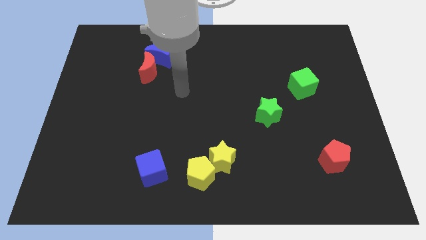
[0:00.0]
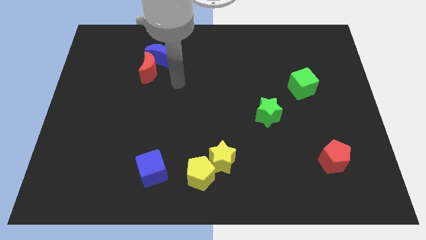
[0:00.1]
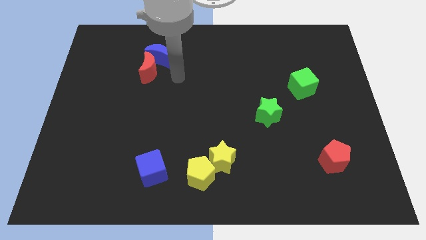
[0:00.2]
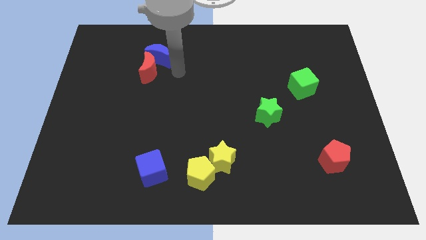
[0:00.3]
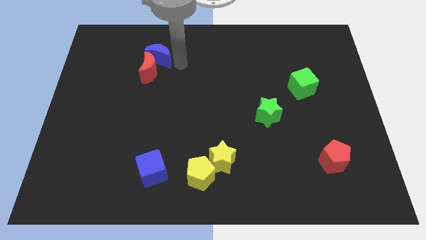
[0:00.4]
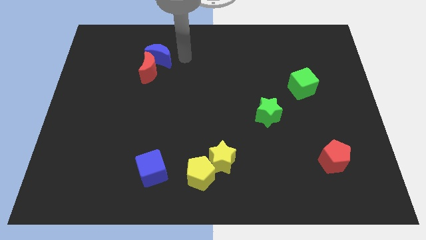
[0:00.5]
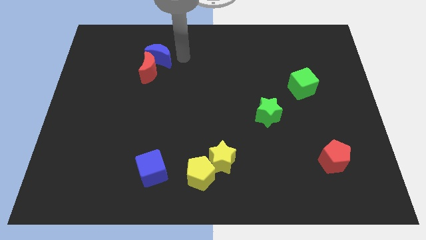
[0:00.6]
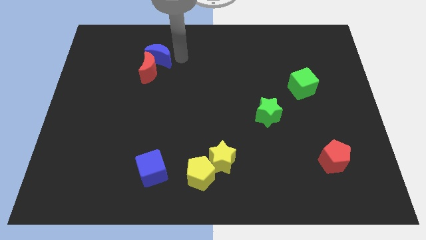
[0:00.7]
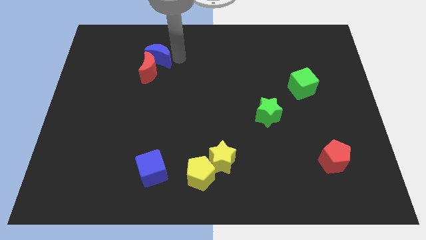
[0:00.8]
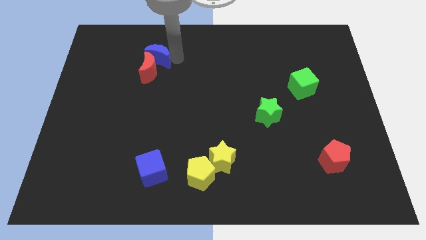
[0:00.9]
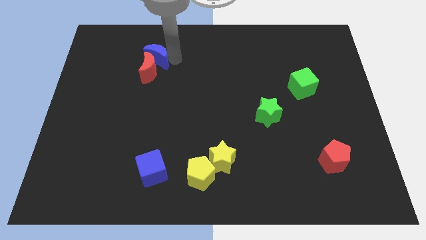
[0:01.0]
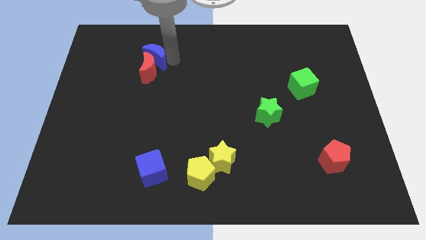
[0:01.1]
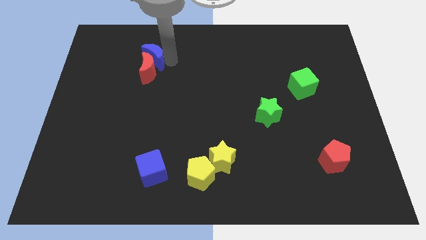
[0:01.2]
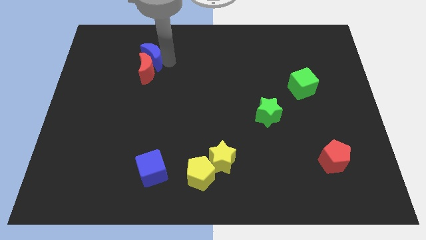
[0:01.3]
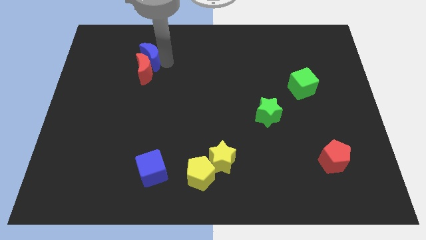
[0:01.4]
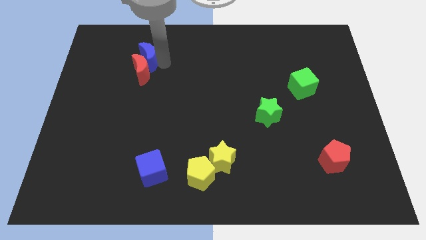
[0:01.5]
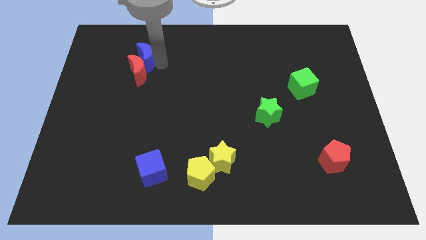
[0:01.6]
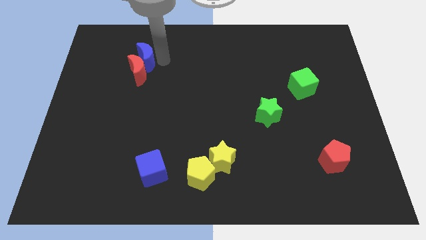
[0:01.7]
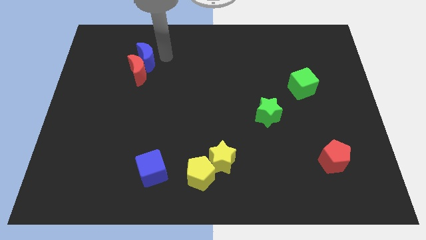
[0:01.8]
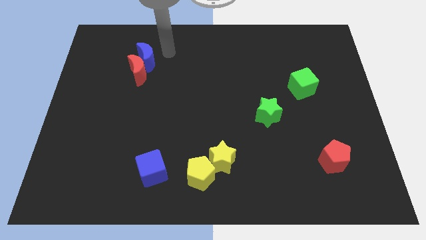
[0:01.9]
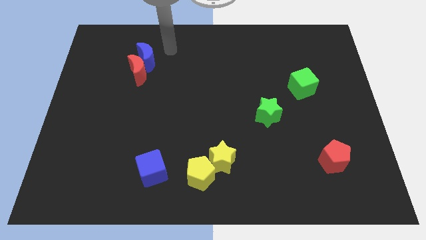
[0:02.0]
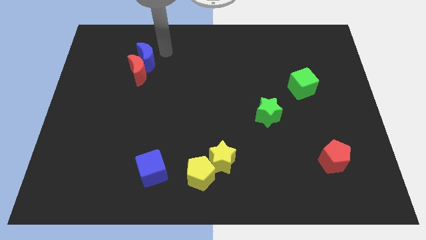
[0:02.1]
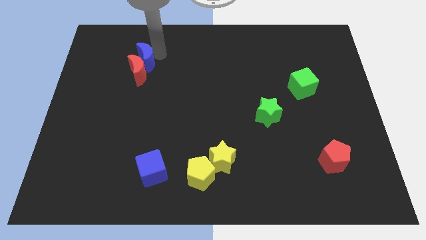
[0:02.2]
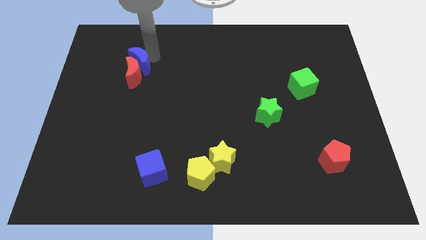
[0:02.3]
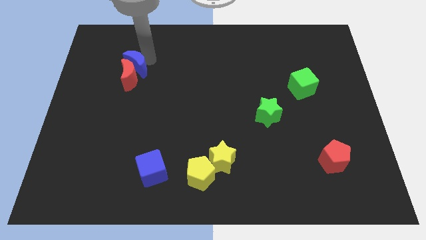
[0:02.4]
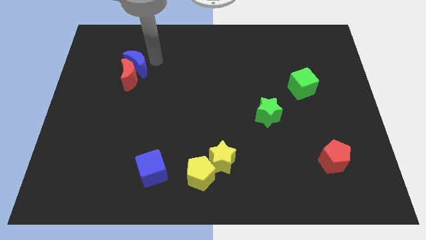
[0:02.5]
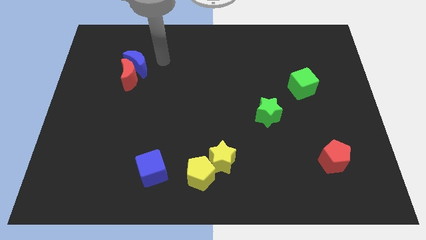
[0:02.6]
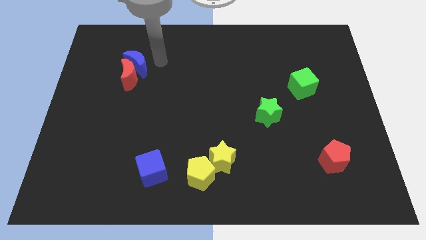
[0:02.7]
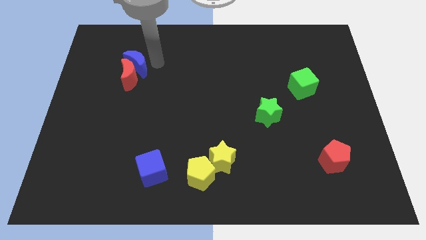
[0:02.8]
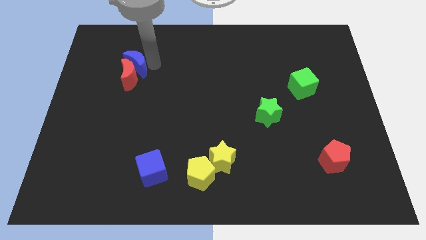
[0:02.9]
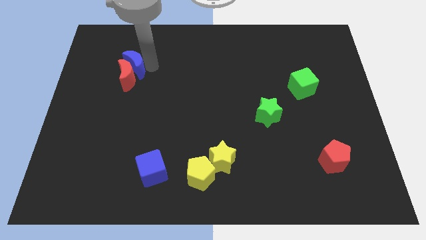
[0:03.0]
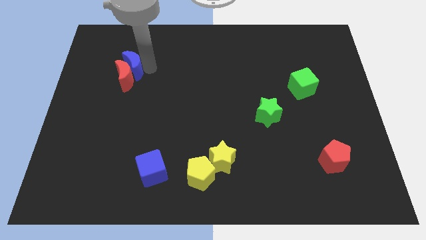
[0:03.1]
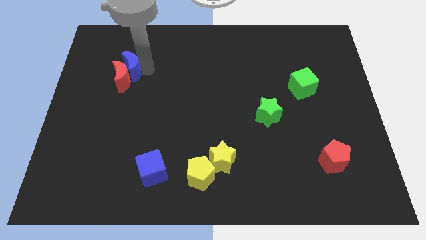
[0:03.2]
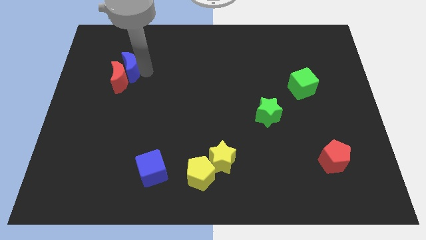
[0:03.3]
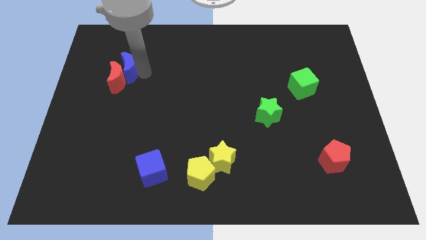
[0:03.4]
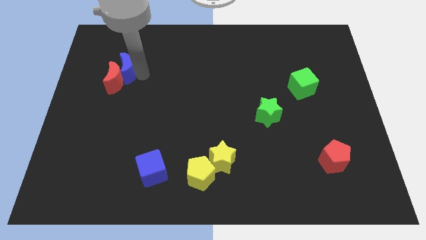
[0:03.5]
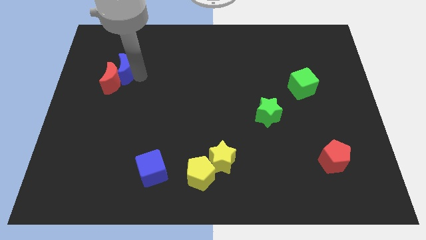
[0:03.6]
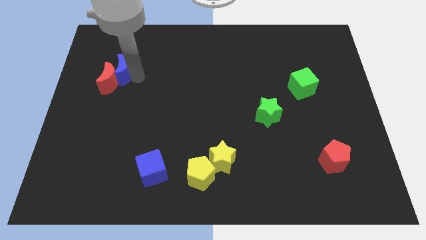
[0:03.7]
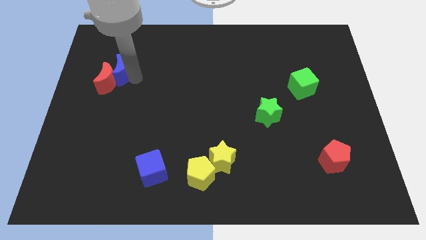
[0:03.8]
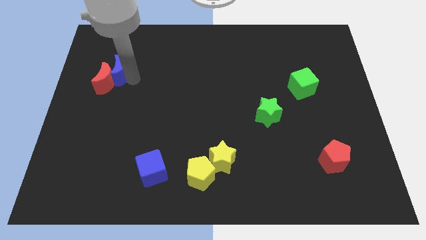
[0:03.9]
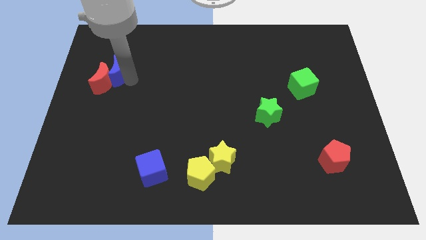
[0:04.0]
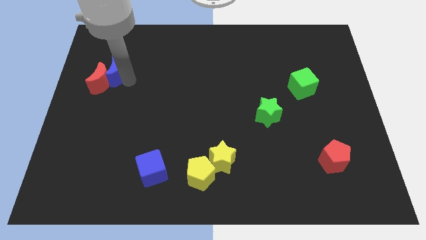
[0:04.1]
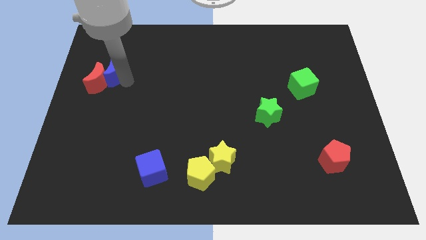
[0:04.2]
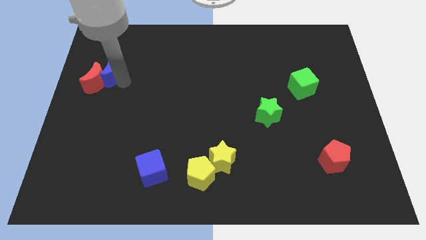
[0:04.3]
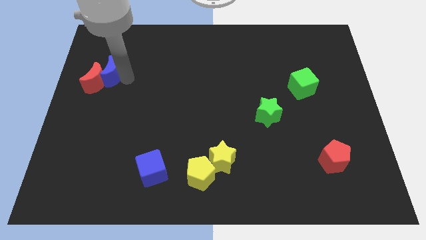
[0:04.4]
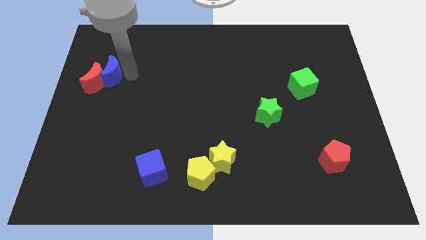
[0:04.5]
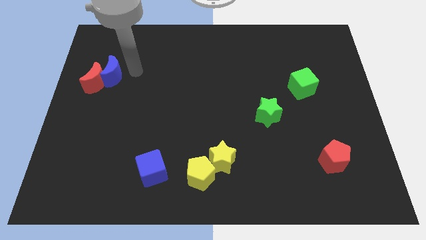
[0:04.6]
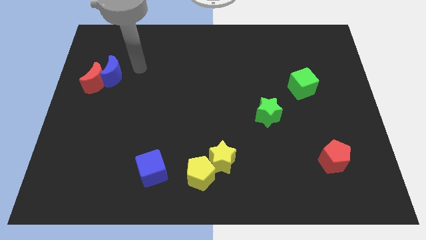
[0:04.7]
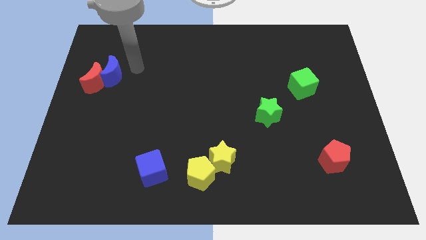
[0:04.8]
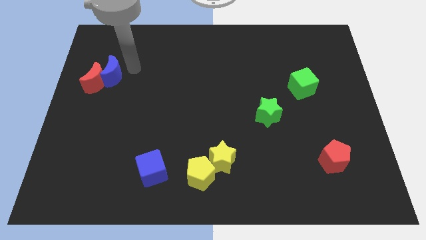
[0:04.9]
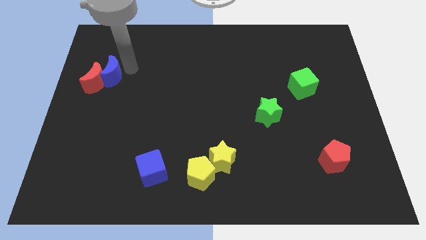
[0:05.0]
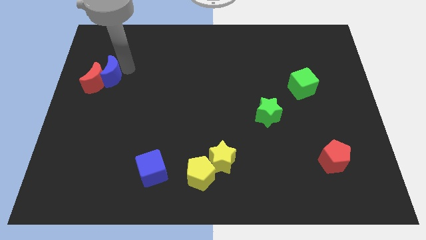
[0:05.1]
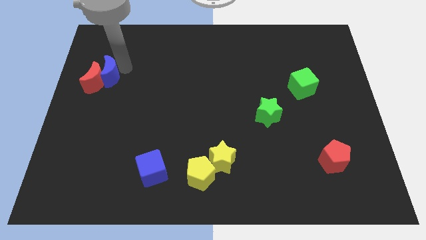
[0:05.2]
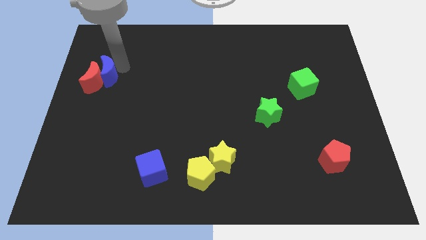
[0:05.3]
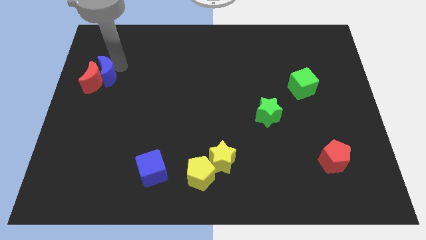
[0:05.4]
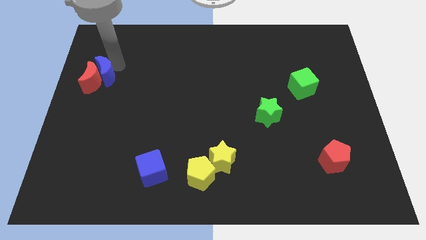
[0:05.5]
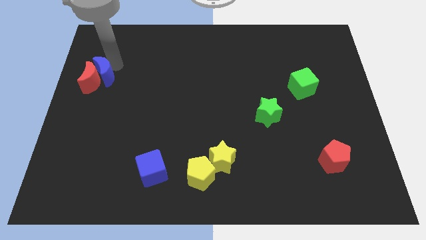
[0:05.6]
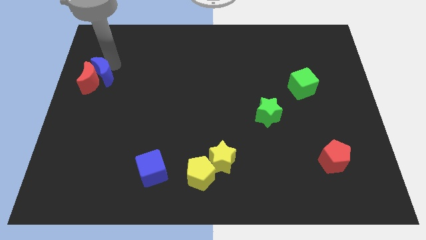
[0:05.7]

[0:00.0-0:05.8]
slide the blue moon to the center left

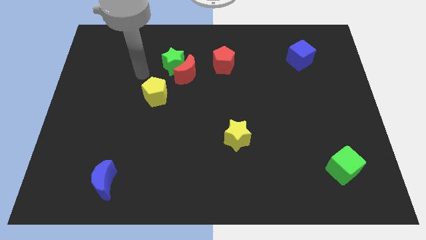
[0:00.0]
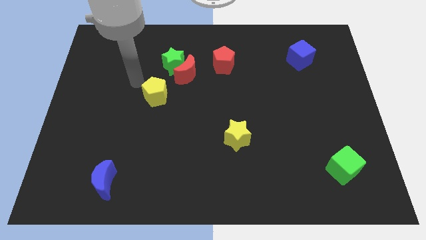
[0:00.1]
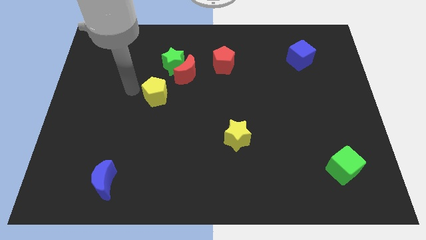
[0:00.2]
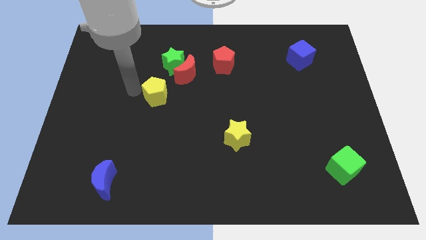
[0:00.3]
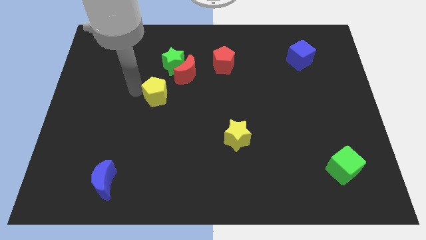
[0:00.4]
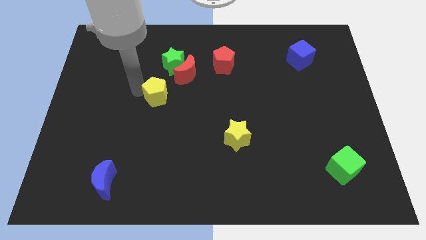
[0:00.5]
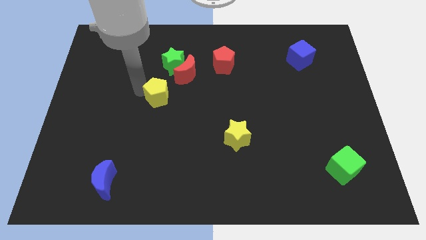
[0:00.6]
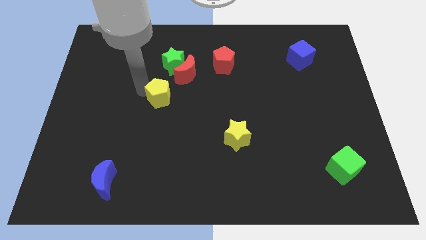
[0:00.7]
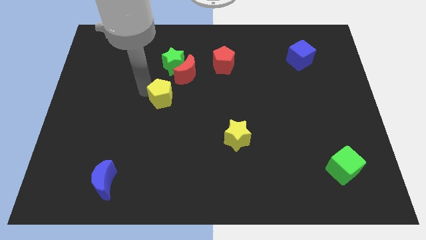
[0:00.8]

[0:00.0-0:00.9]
slide the yellow pentagon to the center of the board
